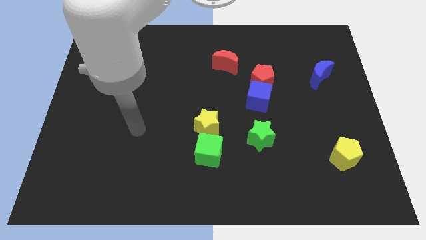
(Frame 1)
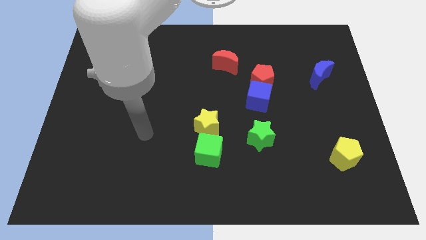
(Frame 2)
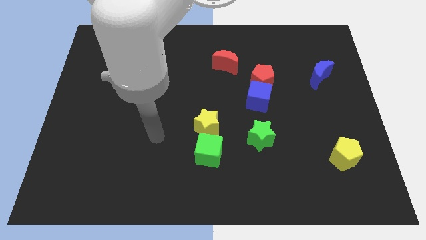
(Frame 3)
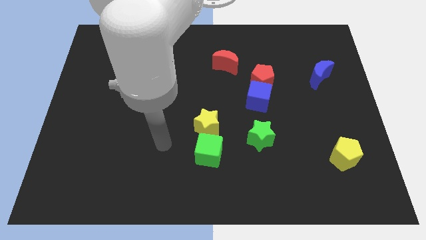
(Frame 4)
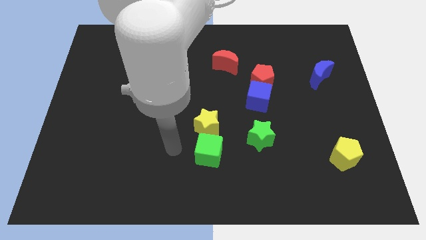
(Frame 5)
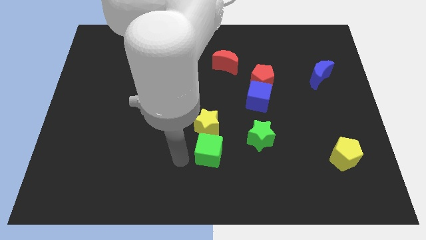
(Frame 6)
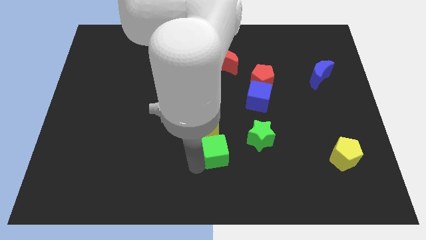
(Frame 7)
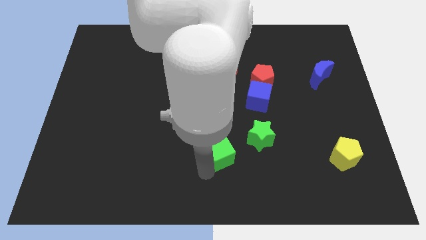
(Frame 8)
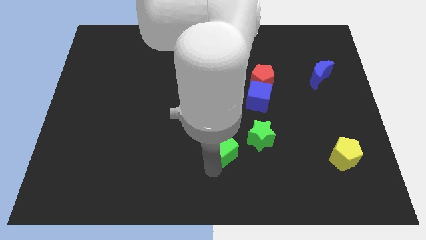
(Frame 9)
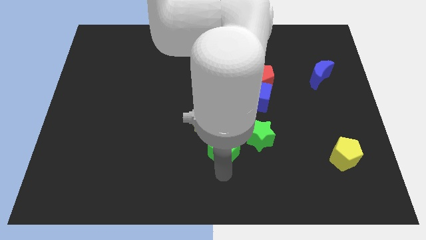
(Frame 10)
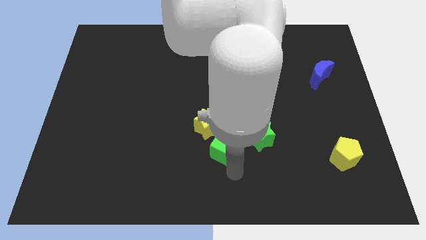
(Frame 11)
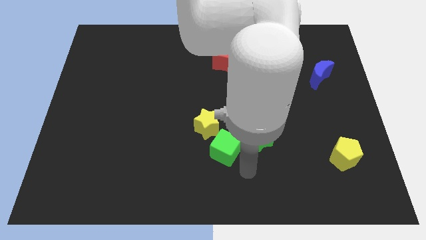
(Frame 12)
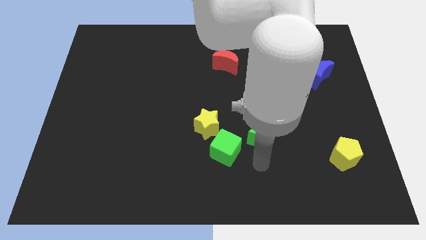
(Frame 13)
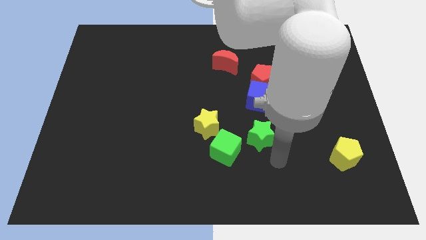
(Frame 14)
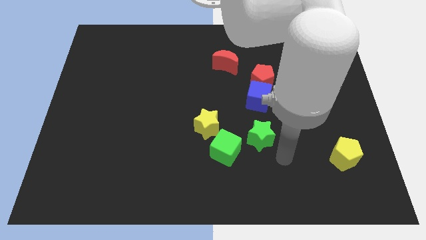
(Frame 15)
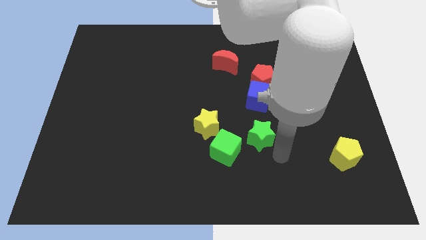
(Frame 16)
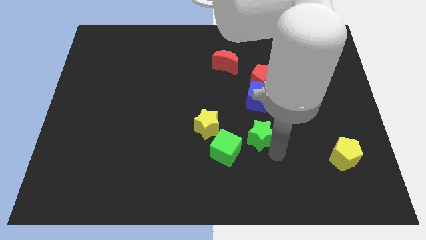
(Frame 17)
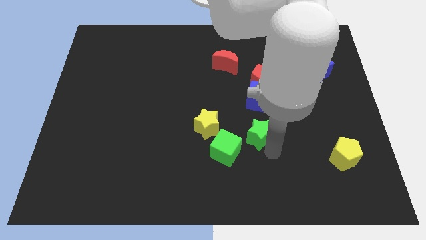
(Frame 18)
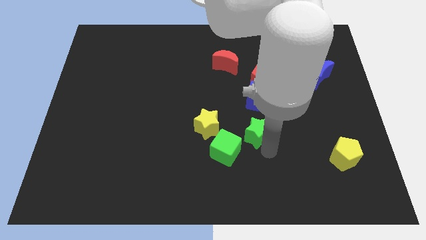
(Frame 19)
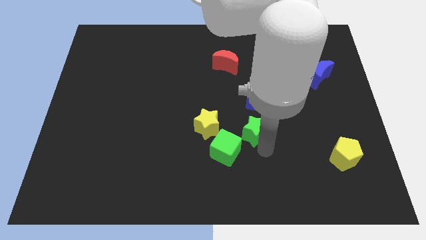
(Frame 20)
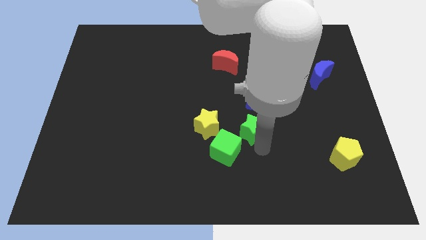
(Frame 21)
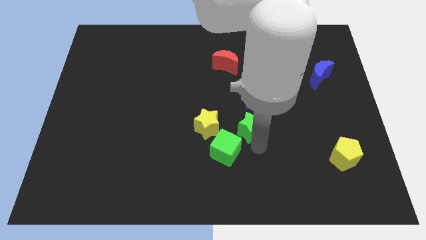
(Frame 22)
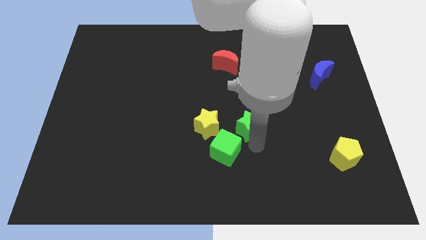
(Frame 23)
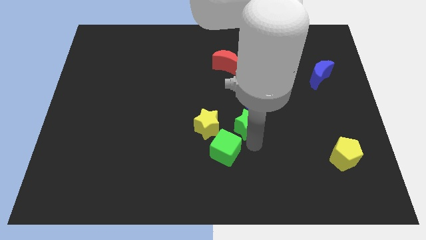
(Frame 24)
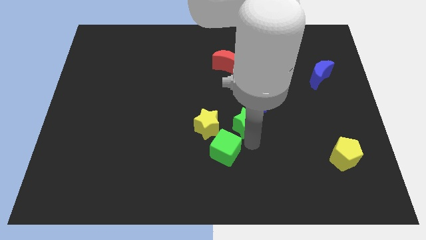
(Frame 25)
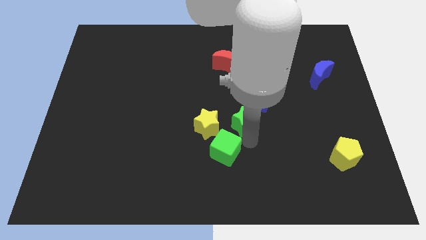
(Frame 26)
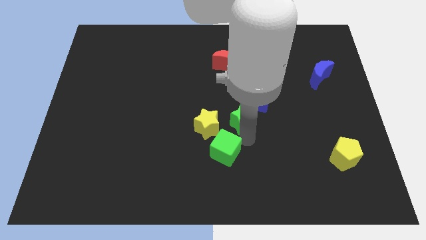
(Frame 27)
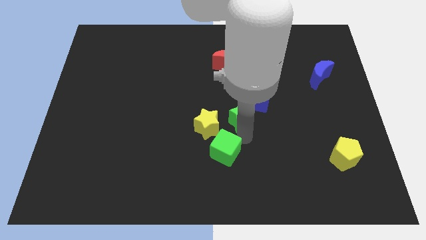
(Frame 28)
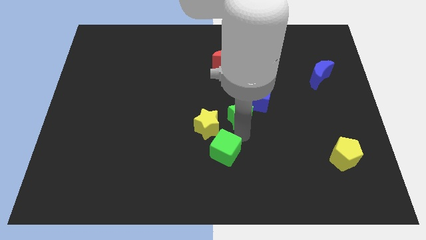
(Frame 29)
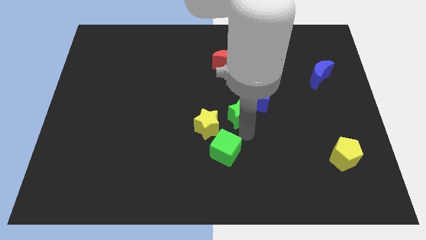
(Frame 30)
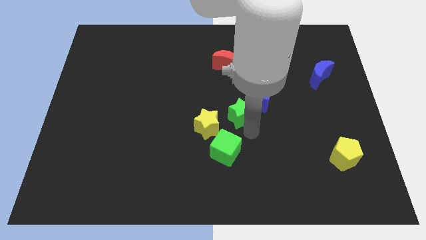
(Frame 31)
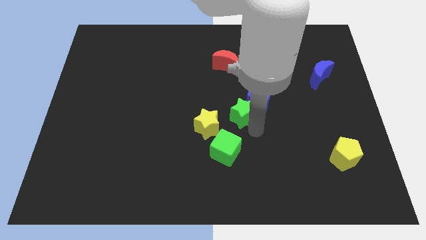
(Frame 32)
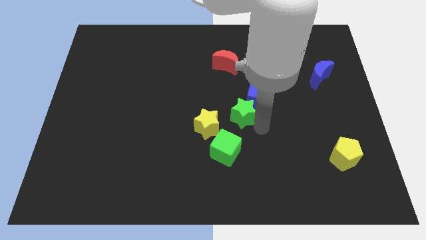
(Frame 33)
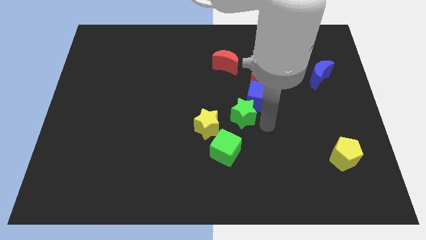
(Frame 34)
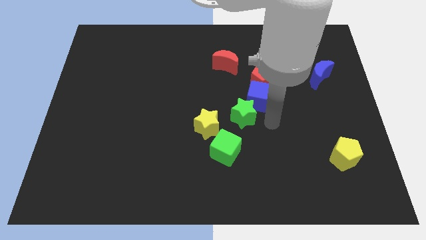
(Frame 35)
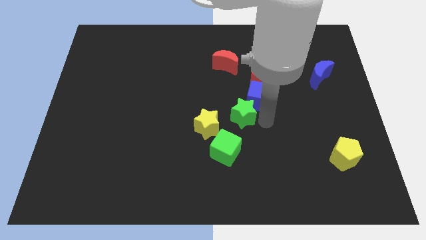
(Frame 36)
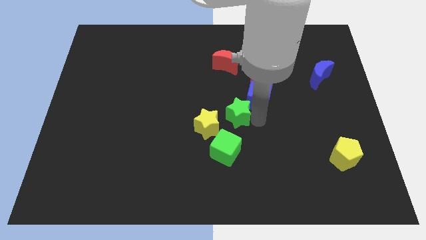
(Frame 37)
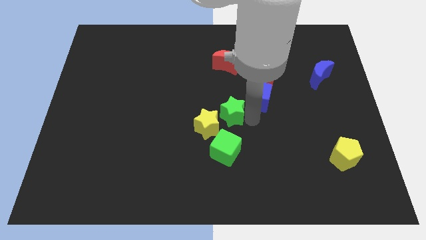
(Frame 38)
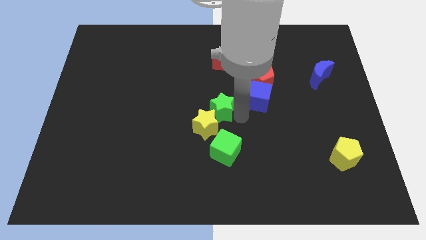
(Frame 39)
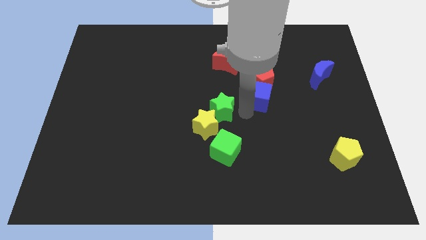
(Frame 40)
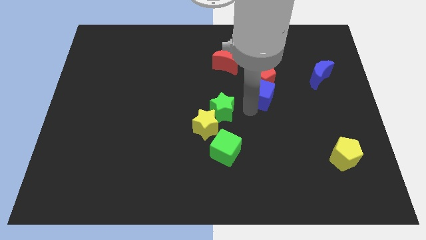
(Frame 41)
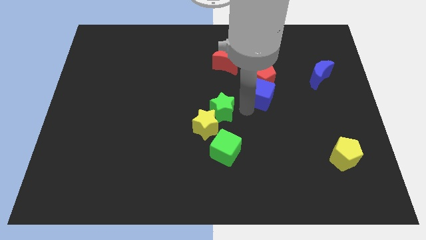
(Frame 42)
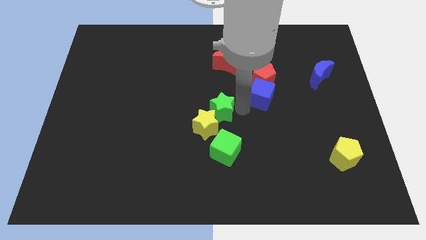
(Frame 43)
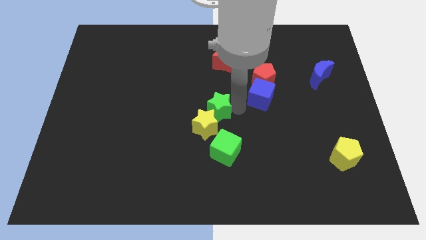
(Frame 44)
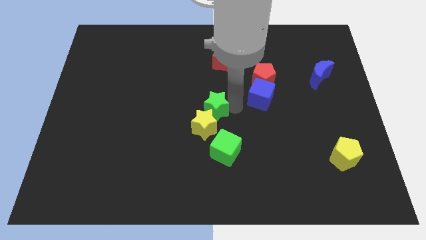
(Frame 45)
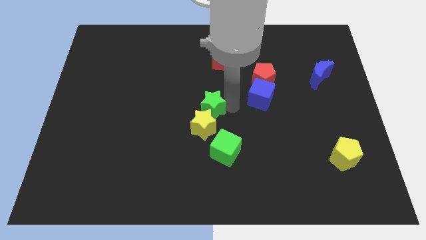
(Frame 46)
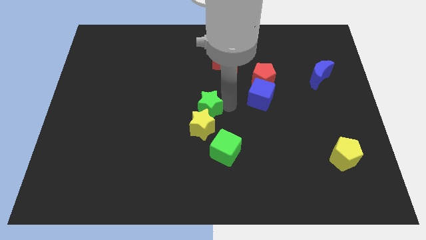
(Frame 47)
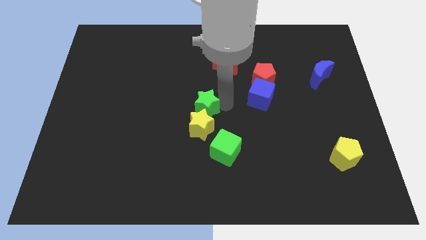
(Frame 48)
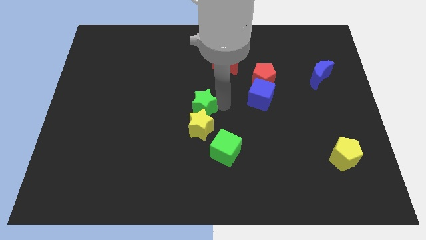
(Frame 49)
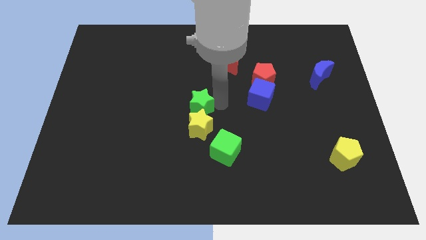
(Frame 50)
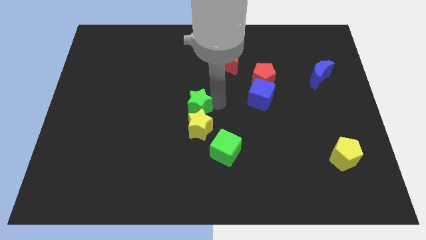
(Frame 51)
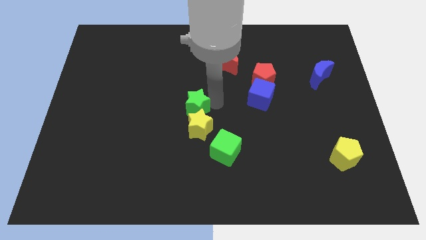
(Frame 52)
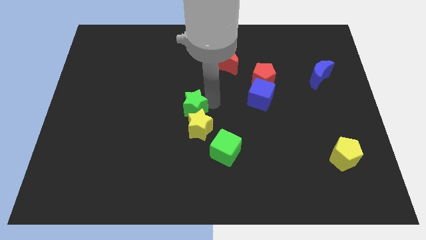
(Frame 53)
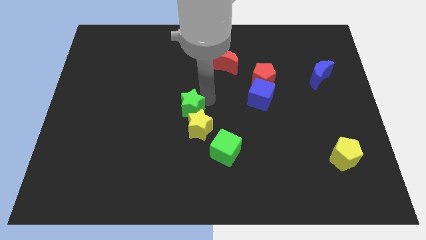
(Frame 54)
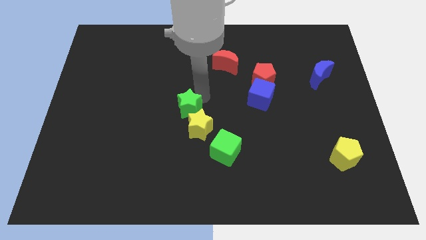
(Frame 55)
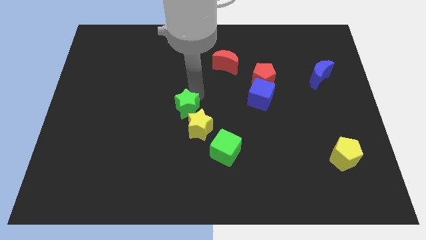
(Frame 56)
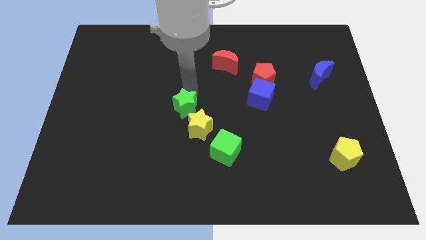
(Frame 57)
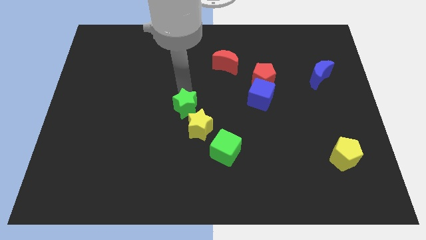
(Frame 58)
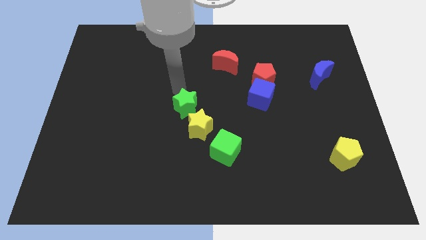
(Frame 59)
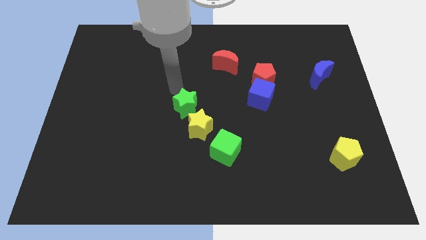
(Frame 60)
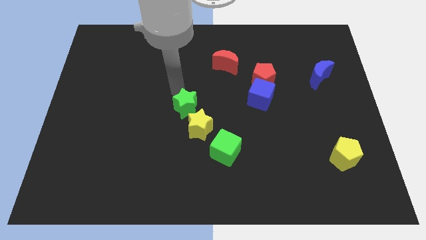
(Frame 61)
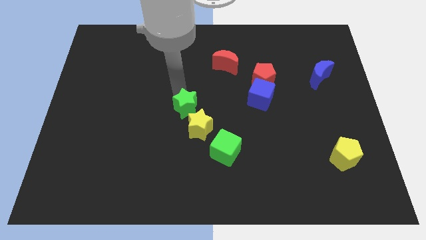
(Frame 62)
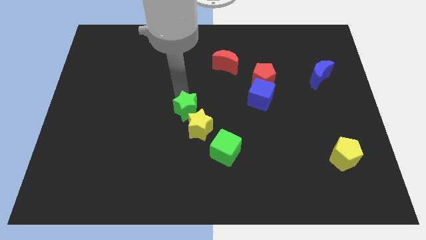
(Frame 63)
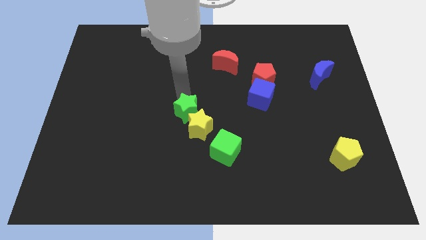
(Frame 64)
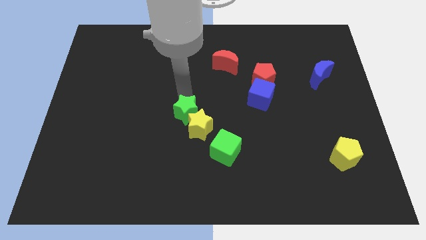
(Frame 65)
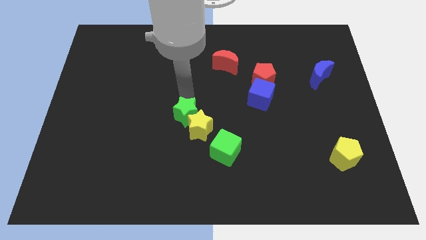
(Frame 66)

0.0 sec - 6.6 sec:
move the green star to the top left side of the green cube
